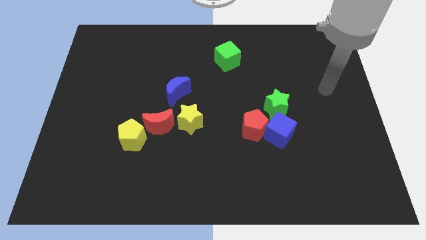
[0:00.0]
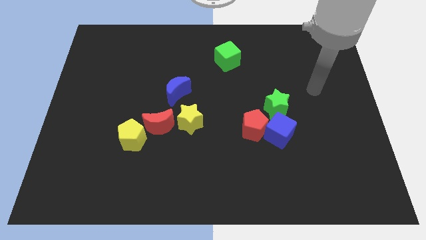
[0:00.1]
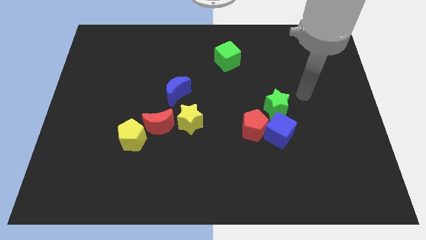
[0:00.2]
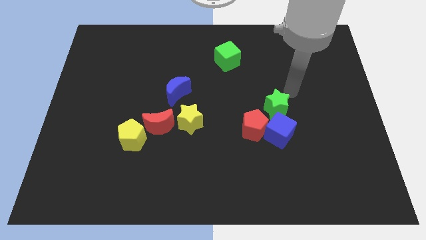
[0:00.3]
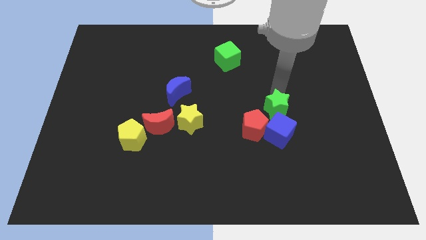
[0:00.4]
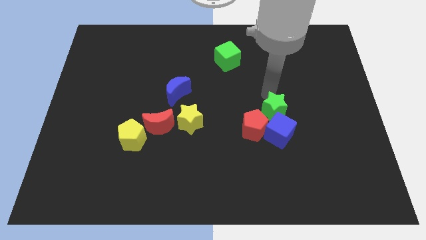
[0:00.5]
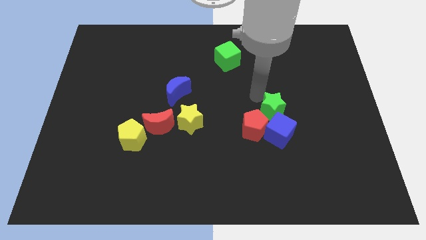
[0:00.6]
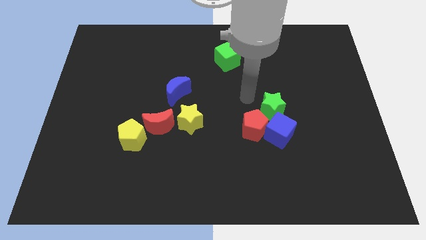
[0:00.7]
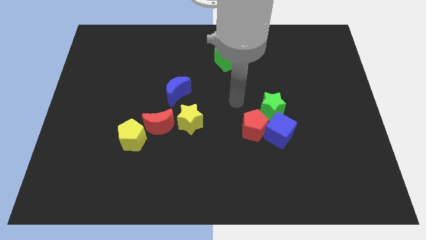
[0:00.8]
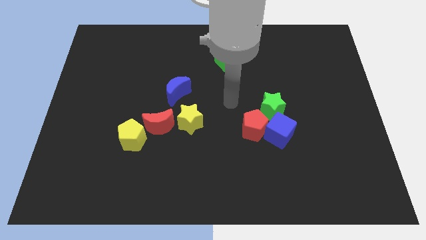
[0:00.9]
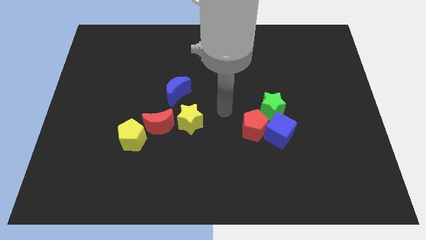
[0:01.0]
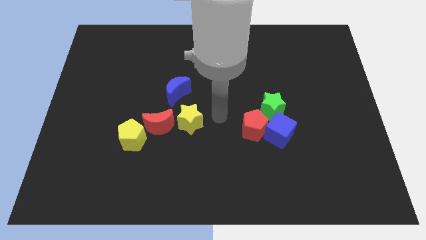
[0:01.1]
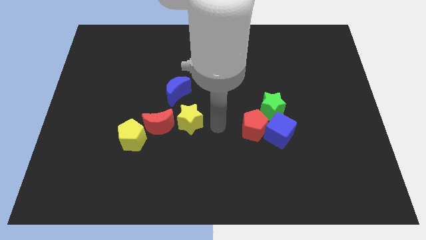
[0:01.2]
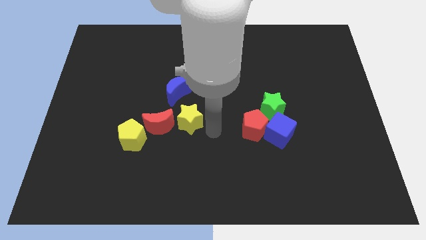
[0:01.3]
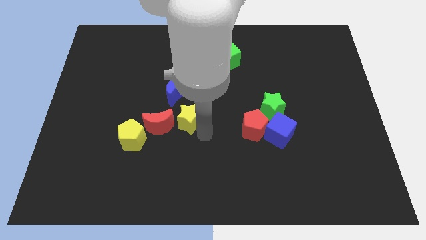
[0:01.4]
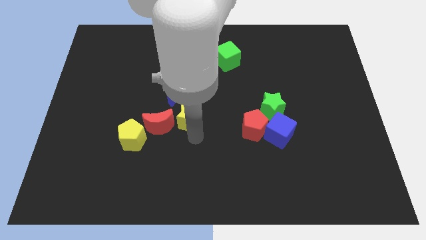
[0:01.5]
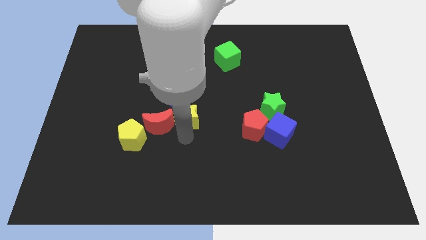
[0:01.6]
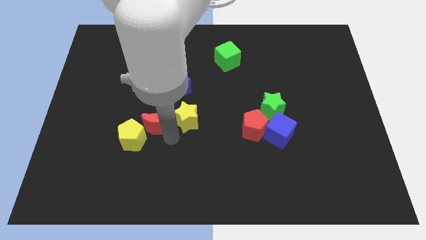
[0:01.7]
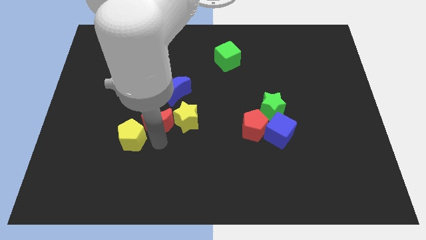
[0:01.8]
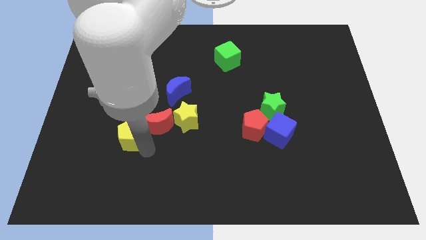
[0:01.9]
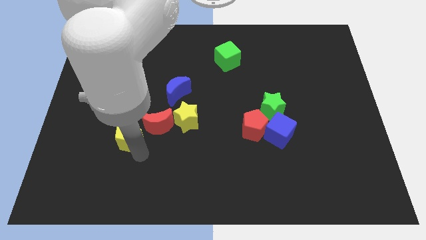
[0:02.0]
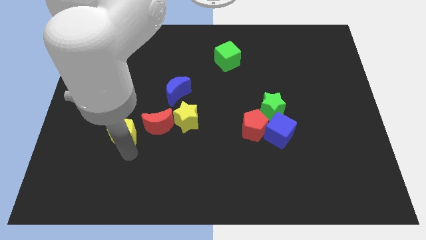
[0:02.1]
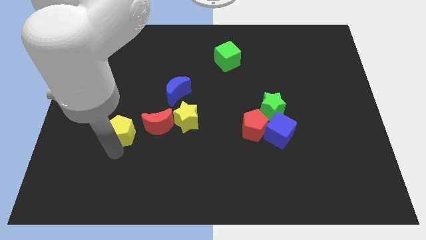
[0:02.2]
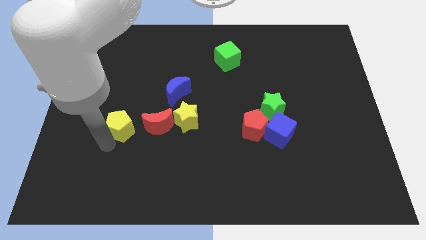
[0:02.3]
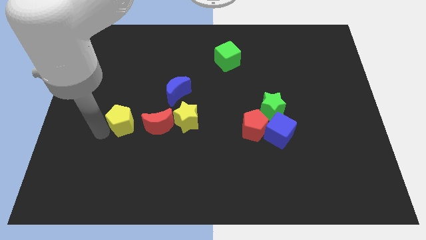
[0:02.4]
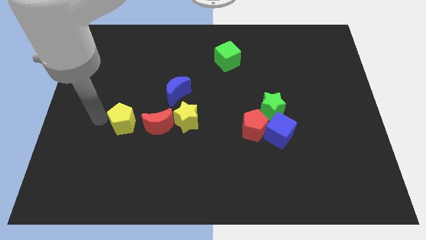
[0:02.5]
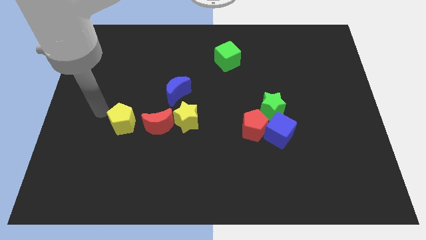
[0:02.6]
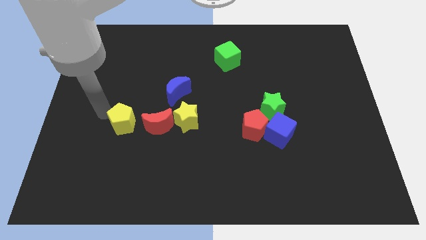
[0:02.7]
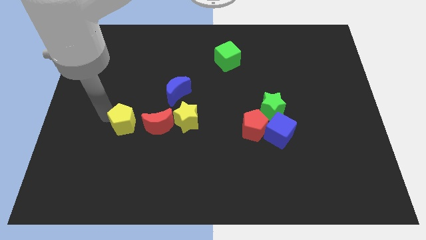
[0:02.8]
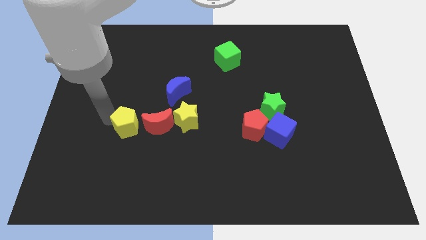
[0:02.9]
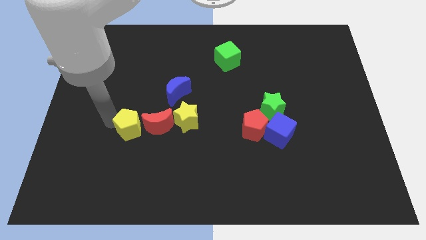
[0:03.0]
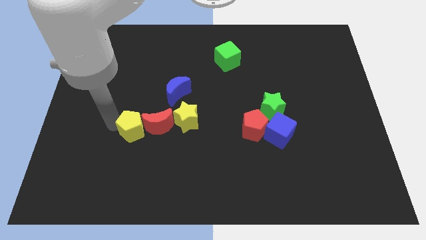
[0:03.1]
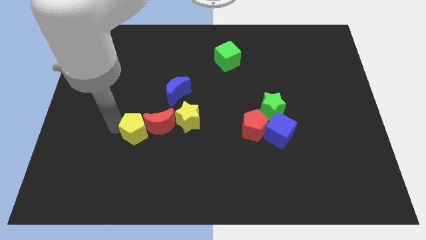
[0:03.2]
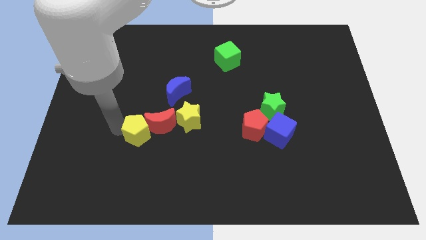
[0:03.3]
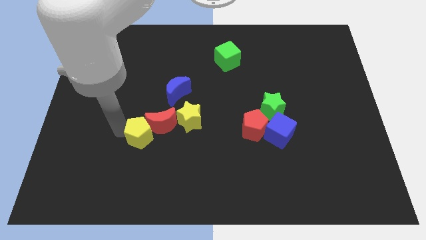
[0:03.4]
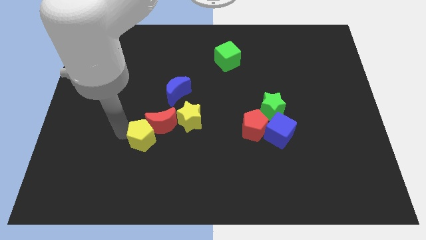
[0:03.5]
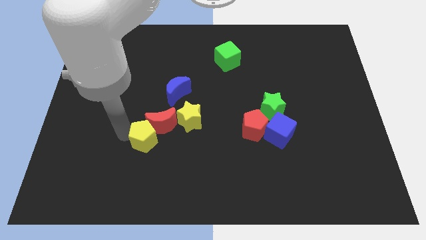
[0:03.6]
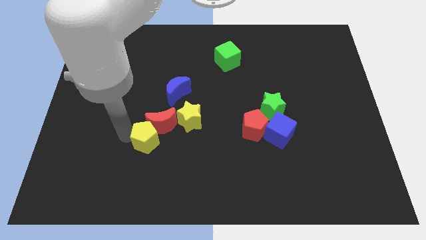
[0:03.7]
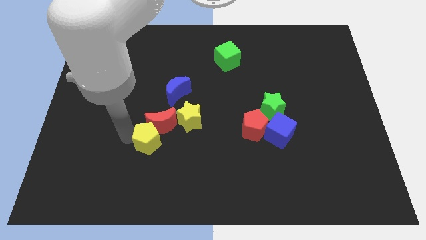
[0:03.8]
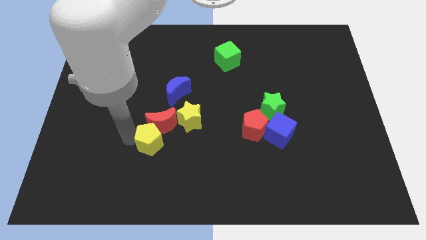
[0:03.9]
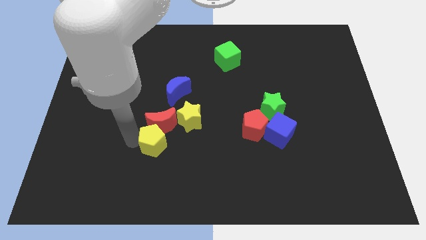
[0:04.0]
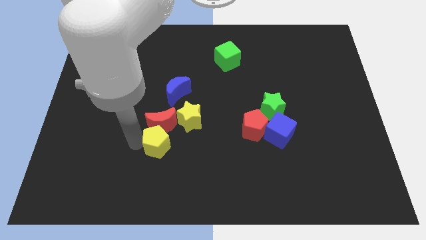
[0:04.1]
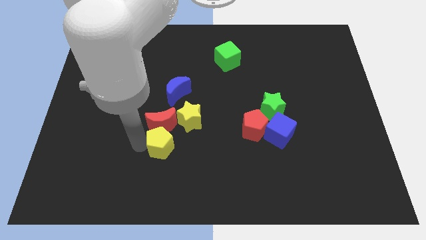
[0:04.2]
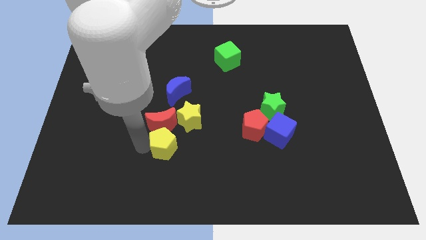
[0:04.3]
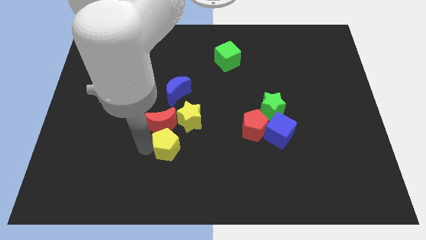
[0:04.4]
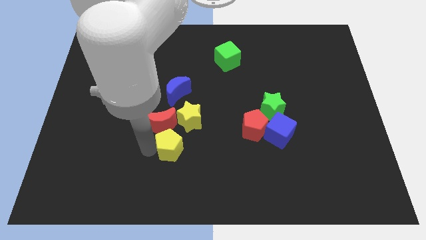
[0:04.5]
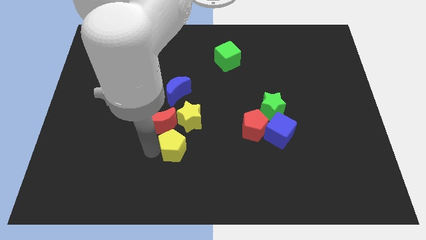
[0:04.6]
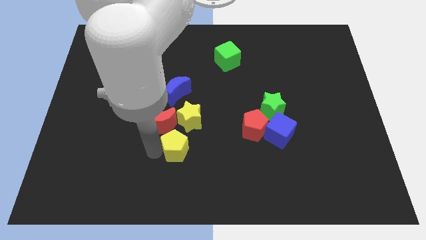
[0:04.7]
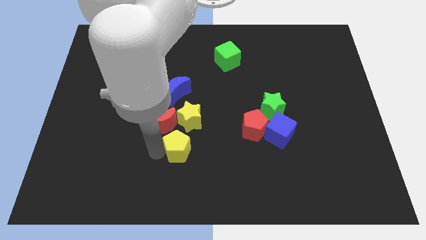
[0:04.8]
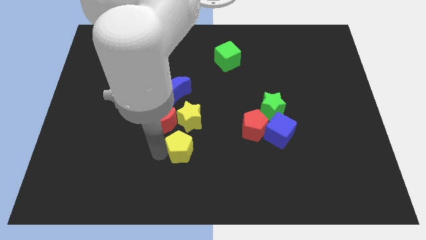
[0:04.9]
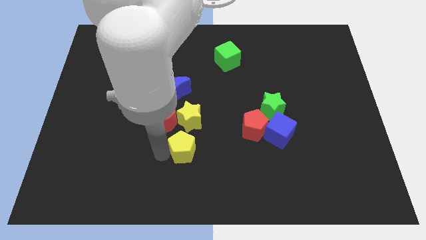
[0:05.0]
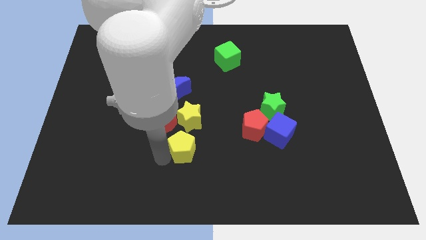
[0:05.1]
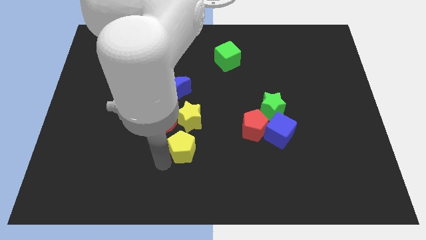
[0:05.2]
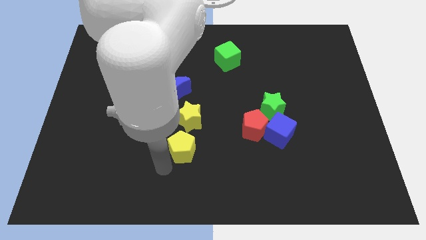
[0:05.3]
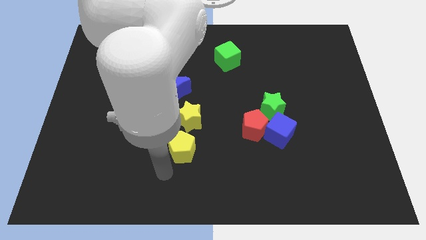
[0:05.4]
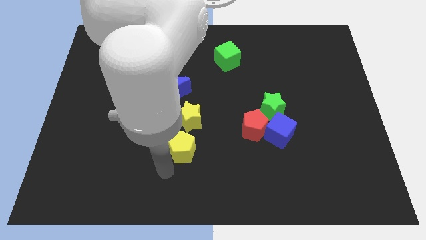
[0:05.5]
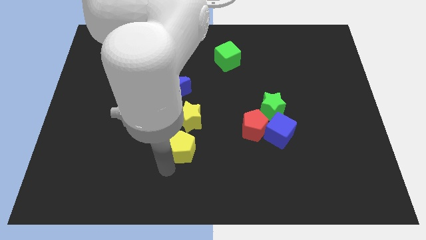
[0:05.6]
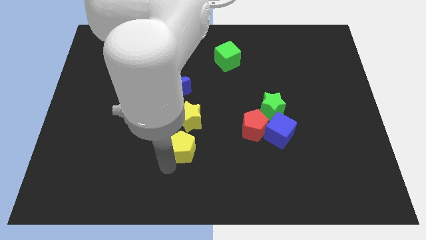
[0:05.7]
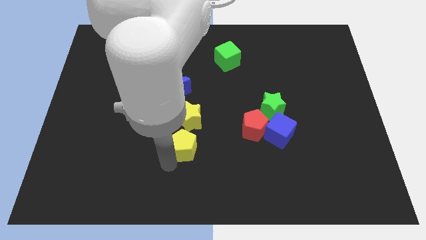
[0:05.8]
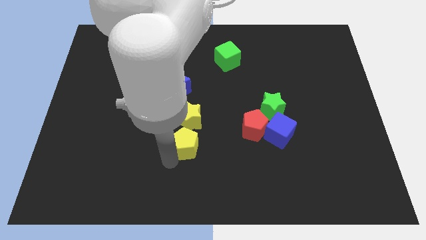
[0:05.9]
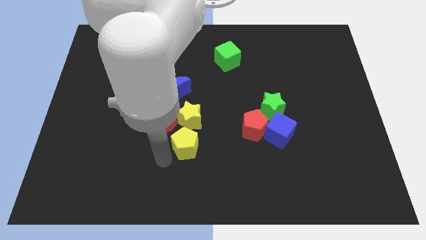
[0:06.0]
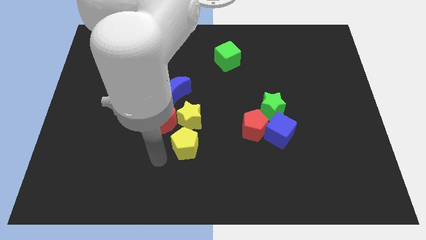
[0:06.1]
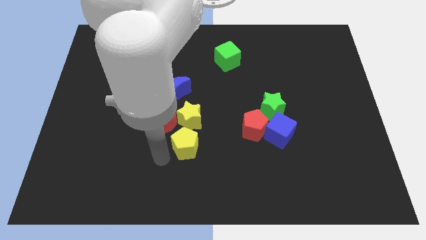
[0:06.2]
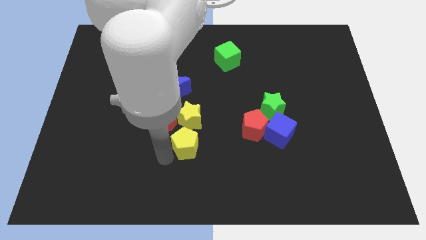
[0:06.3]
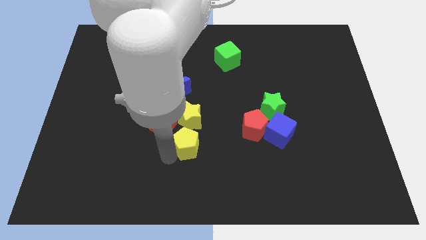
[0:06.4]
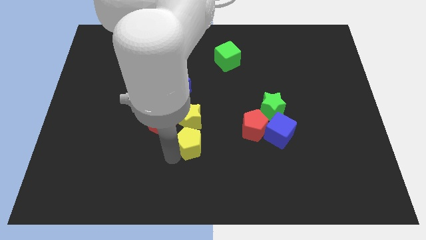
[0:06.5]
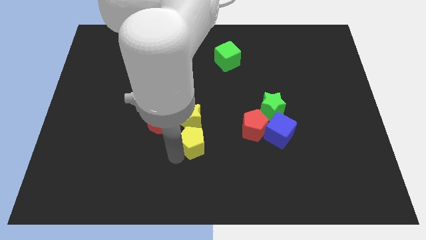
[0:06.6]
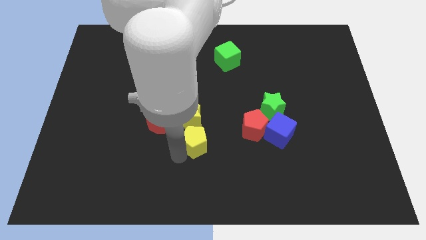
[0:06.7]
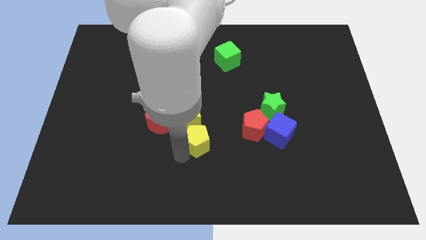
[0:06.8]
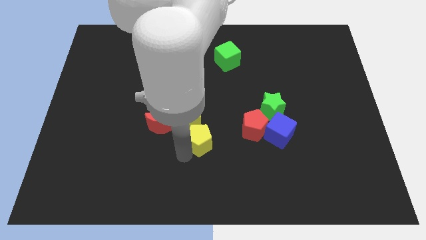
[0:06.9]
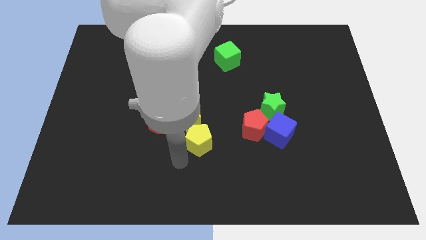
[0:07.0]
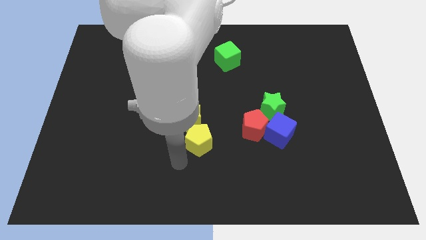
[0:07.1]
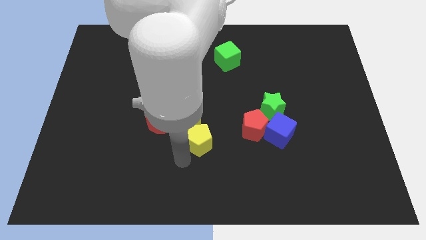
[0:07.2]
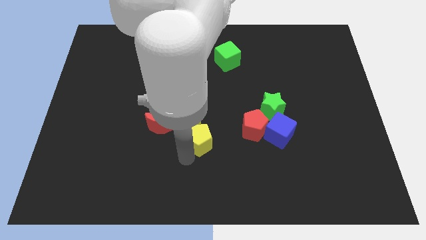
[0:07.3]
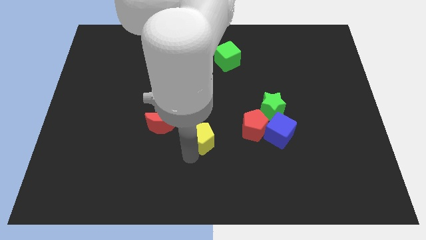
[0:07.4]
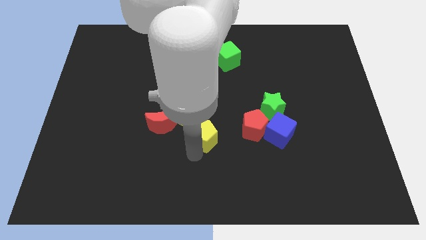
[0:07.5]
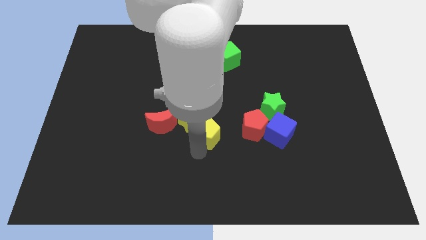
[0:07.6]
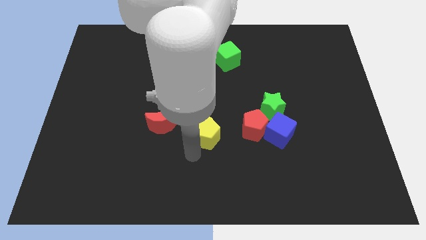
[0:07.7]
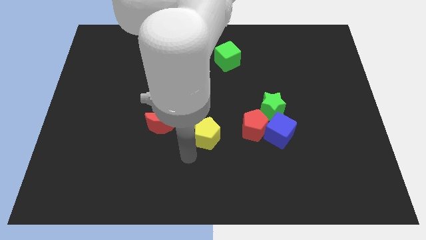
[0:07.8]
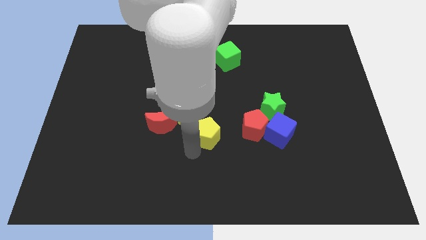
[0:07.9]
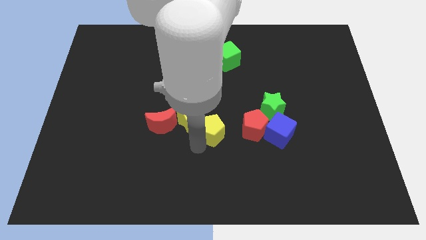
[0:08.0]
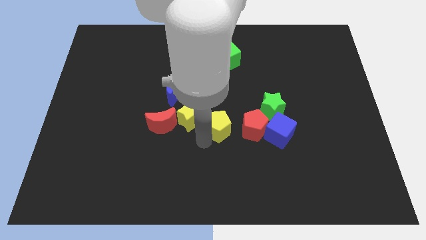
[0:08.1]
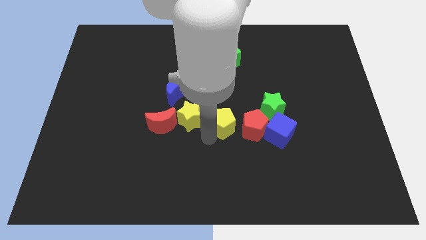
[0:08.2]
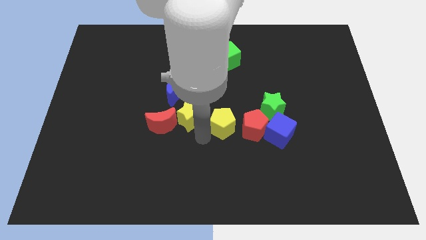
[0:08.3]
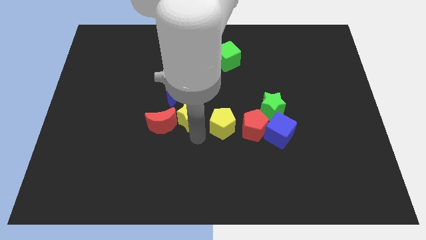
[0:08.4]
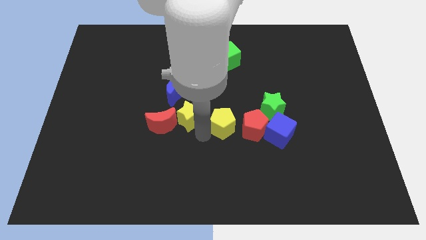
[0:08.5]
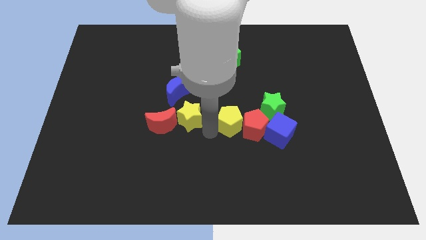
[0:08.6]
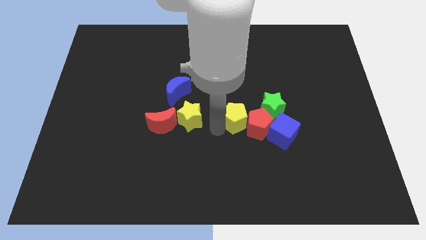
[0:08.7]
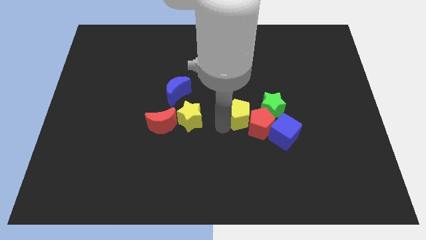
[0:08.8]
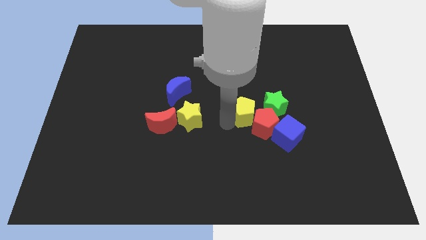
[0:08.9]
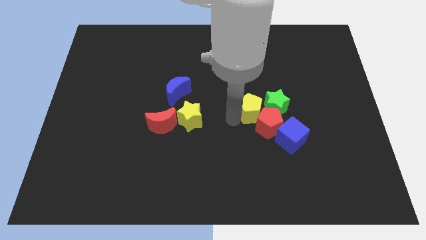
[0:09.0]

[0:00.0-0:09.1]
put the yellow pentagon close to the green star
